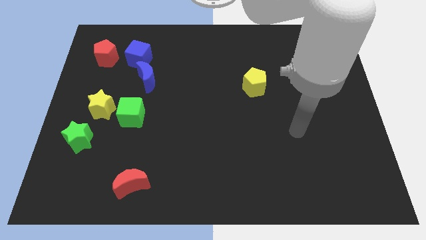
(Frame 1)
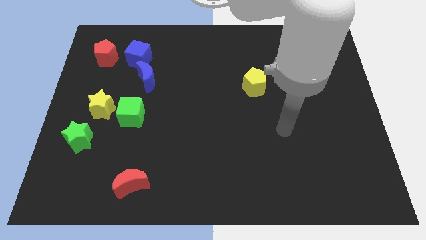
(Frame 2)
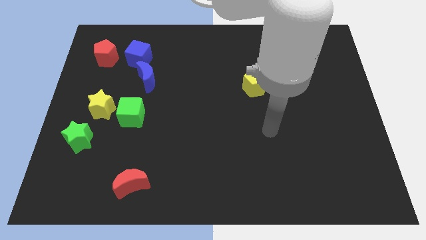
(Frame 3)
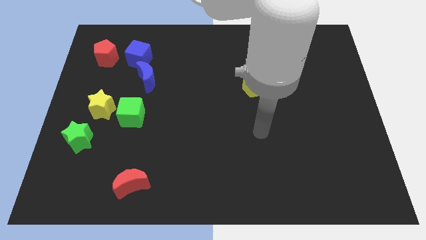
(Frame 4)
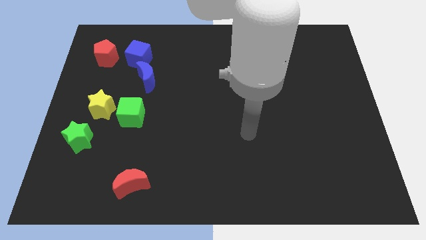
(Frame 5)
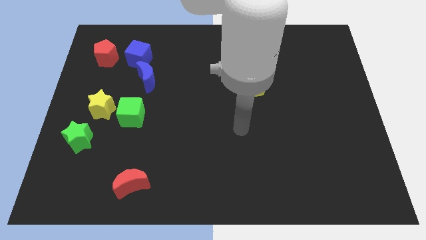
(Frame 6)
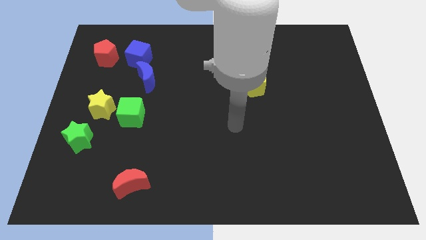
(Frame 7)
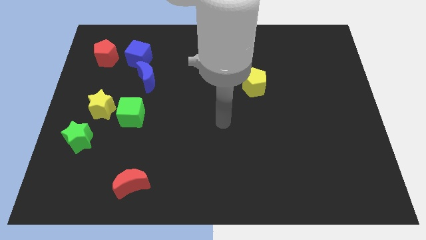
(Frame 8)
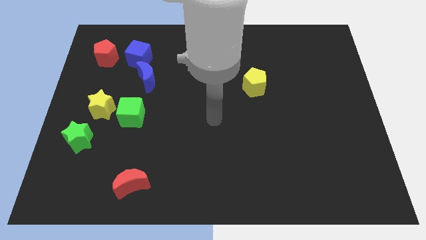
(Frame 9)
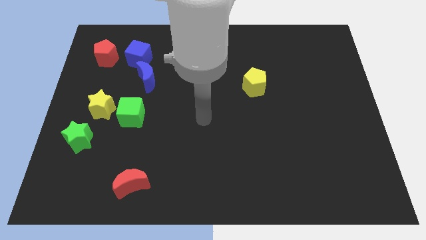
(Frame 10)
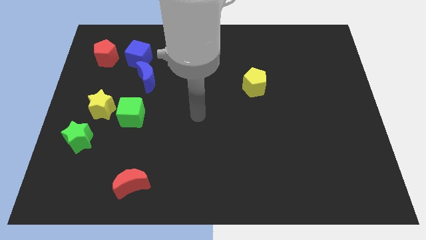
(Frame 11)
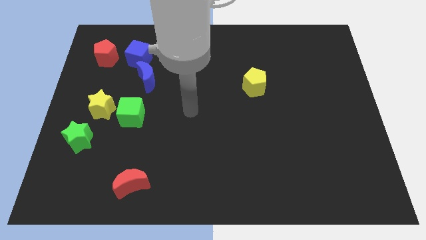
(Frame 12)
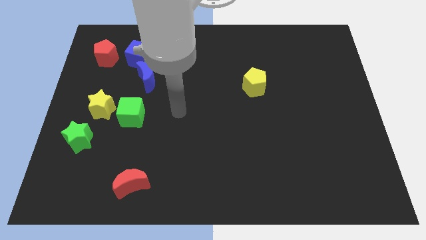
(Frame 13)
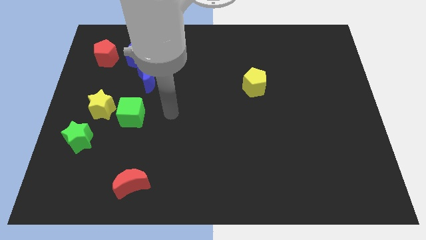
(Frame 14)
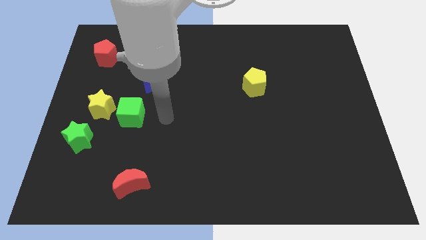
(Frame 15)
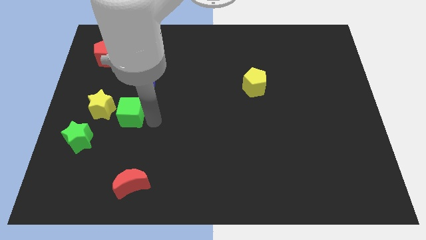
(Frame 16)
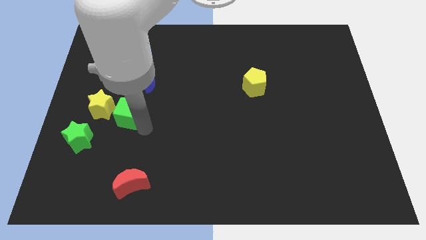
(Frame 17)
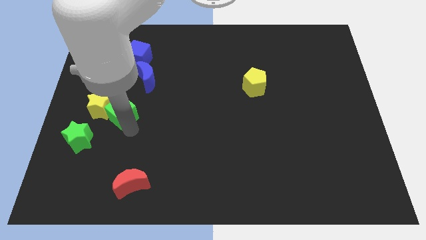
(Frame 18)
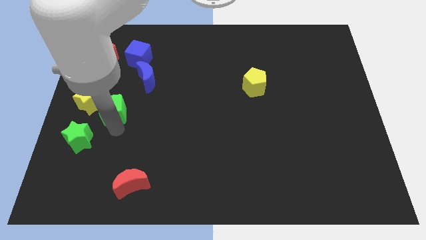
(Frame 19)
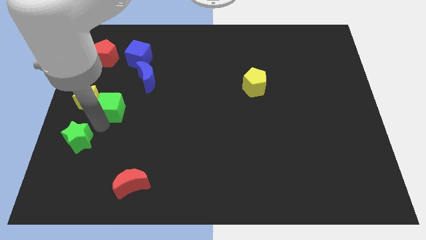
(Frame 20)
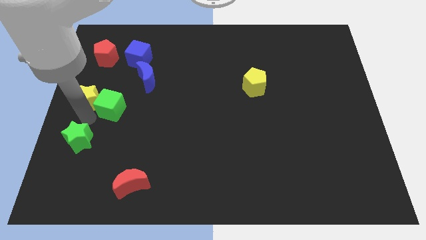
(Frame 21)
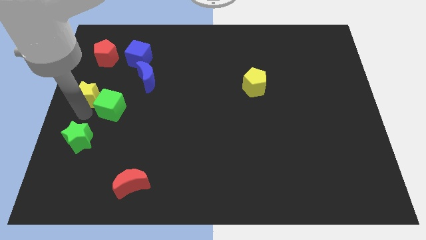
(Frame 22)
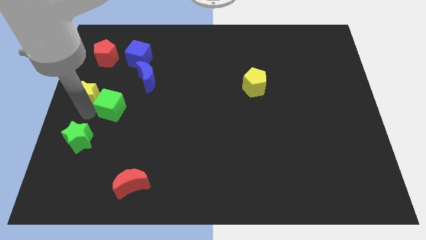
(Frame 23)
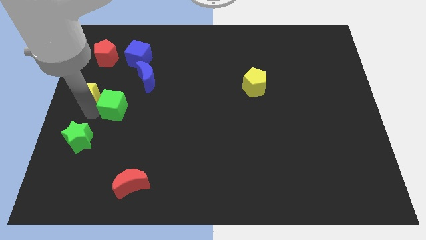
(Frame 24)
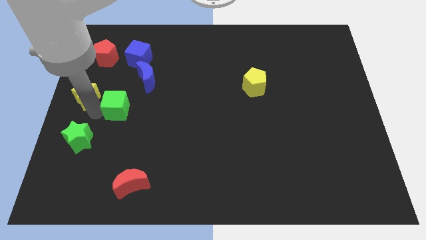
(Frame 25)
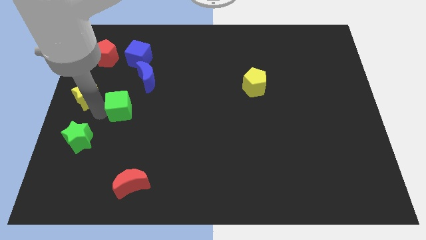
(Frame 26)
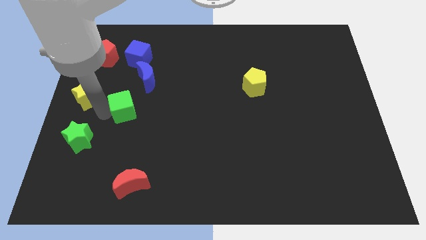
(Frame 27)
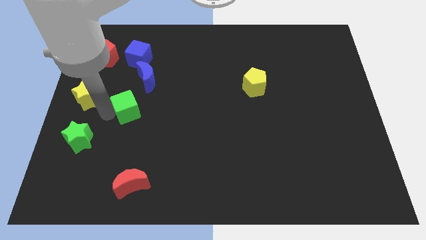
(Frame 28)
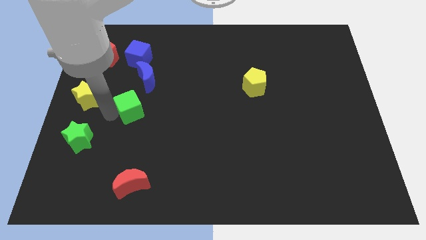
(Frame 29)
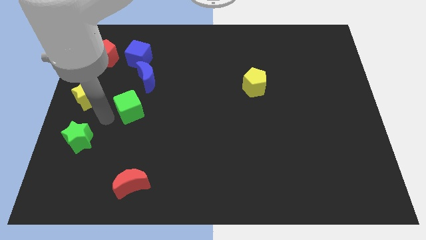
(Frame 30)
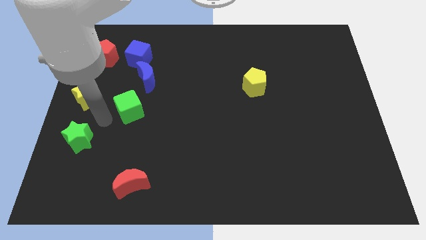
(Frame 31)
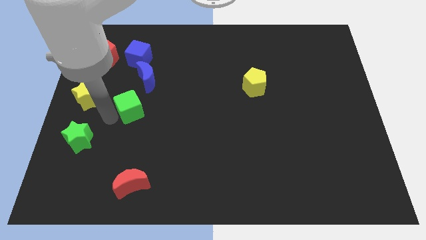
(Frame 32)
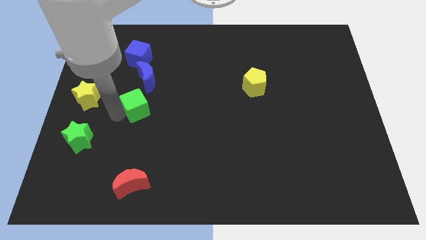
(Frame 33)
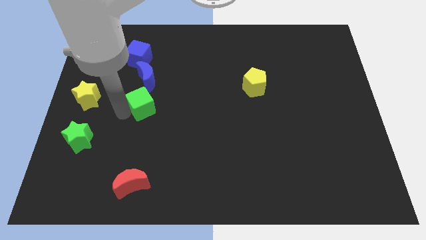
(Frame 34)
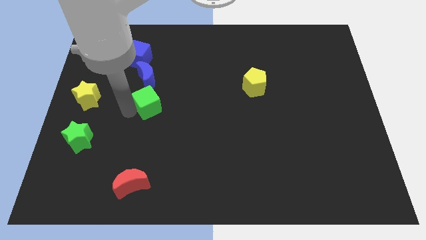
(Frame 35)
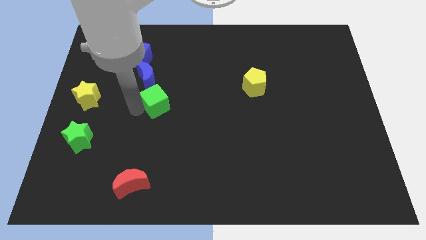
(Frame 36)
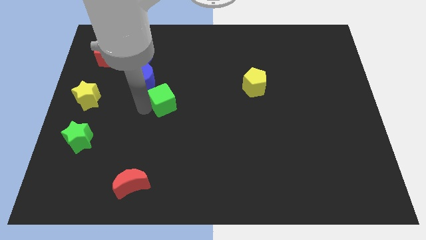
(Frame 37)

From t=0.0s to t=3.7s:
push the green cube diagonally up and to the right slightly

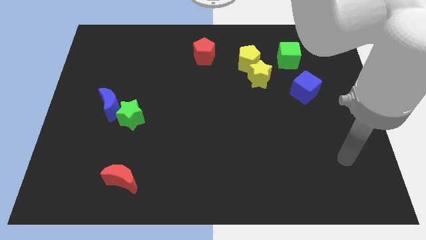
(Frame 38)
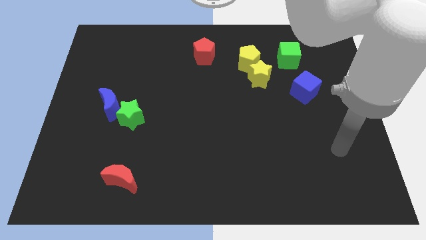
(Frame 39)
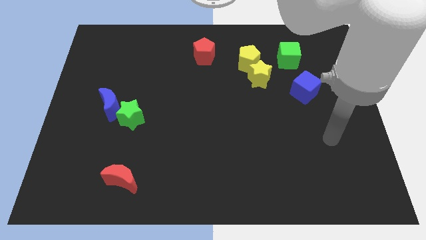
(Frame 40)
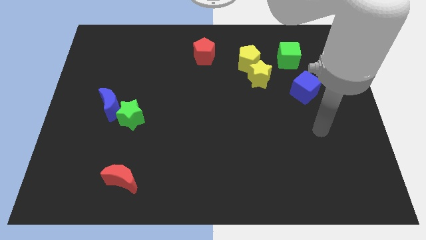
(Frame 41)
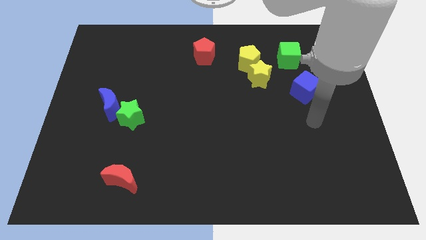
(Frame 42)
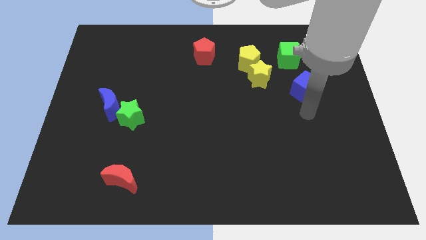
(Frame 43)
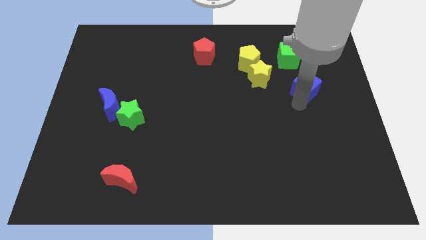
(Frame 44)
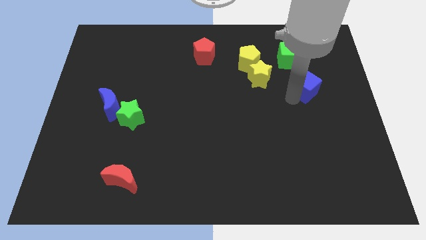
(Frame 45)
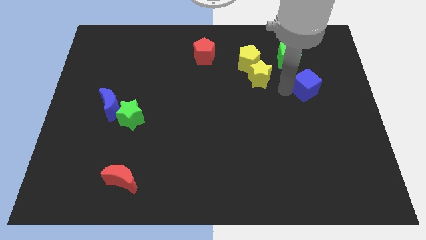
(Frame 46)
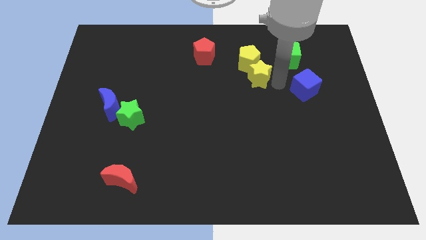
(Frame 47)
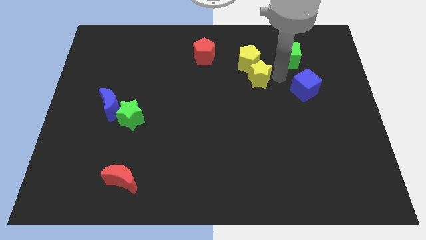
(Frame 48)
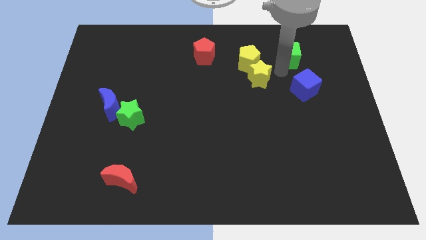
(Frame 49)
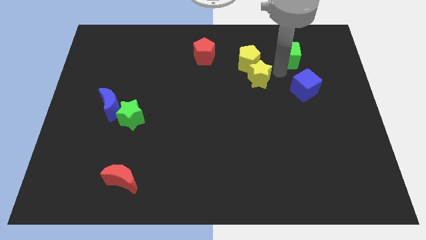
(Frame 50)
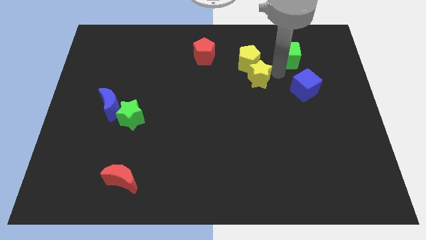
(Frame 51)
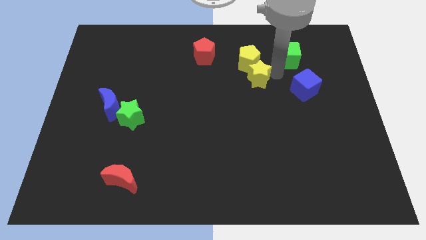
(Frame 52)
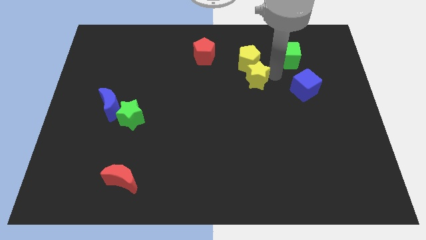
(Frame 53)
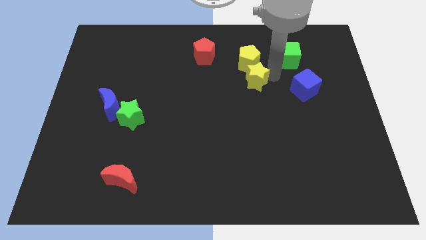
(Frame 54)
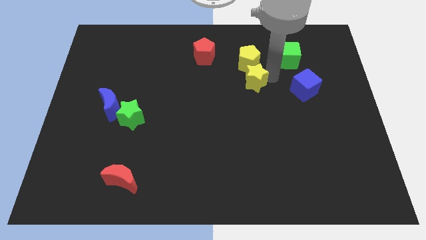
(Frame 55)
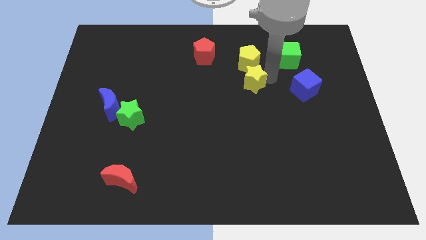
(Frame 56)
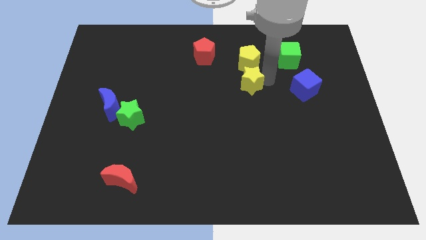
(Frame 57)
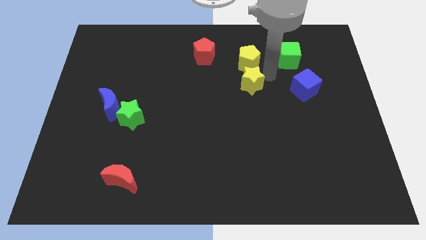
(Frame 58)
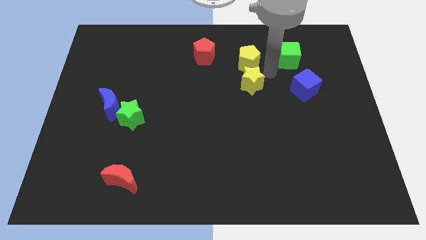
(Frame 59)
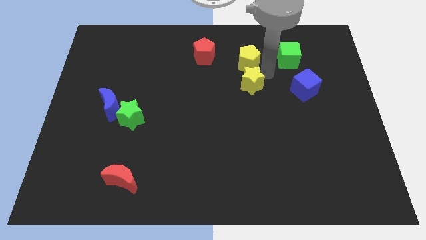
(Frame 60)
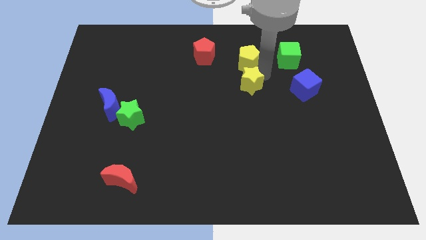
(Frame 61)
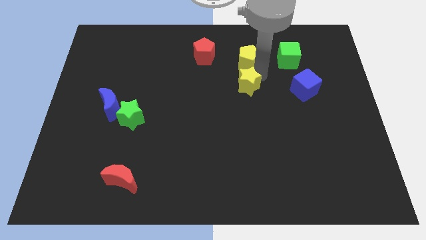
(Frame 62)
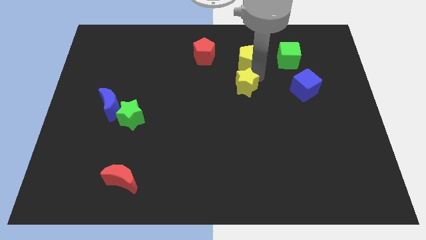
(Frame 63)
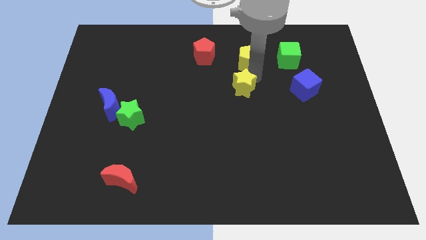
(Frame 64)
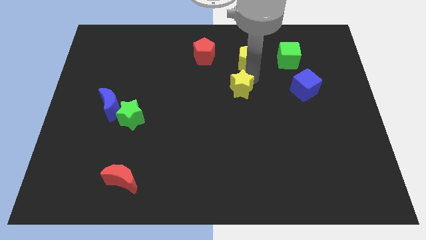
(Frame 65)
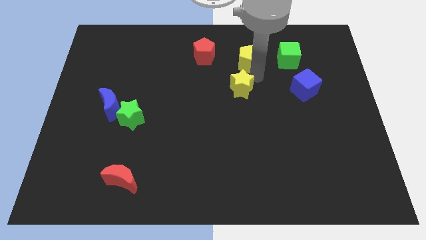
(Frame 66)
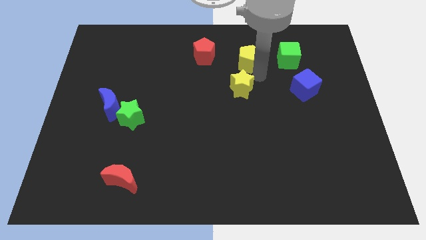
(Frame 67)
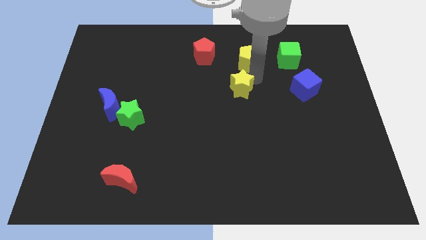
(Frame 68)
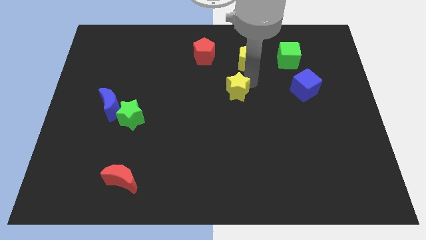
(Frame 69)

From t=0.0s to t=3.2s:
slide the yellow star a bit downwards and left diagonally

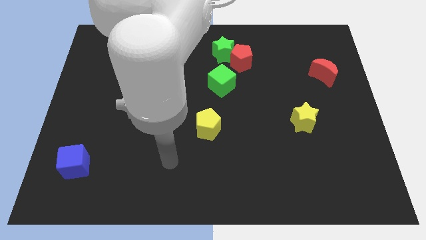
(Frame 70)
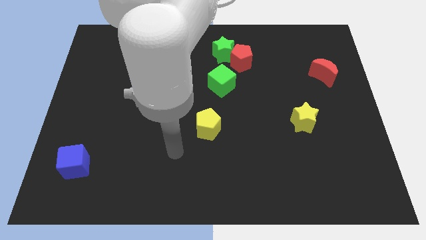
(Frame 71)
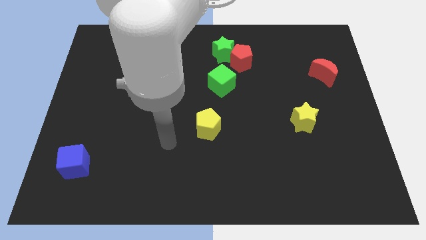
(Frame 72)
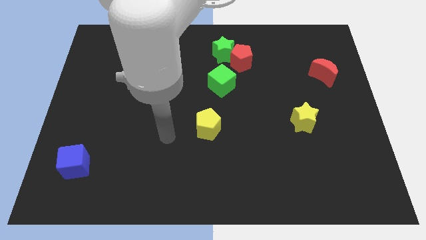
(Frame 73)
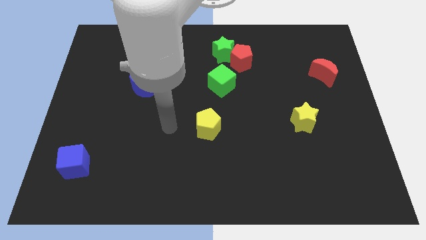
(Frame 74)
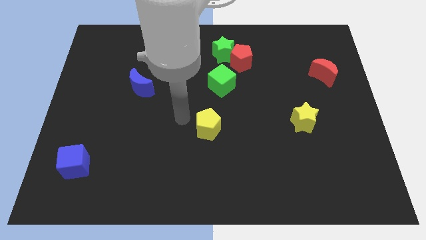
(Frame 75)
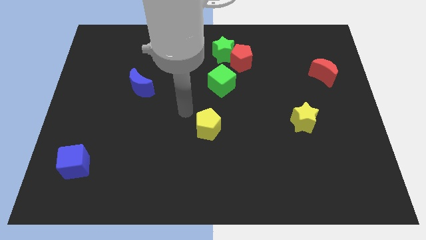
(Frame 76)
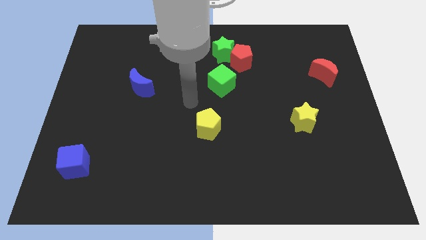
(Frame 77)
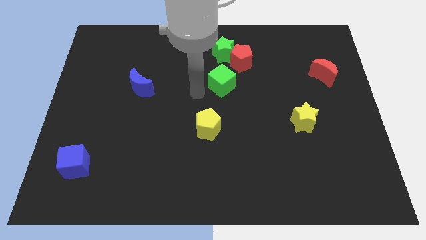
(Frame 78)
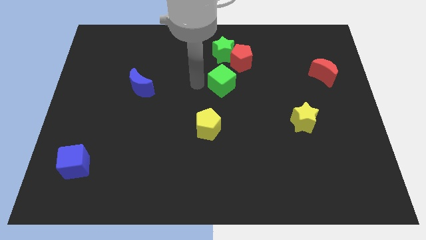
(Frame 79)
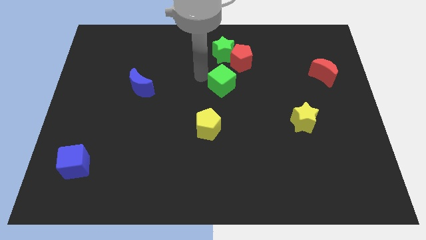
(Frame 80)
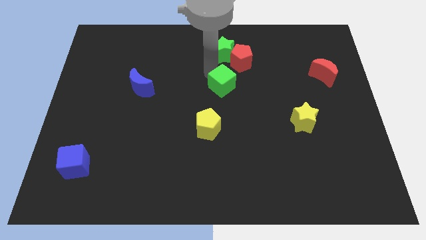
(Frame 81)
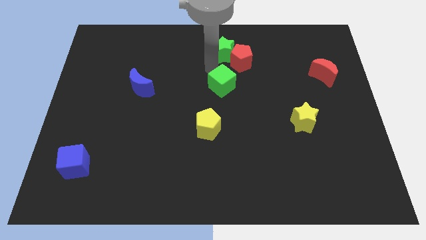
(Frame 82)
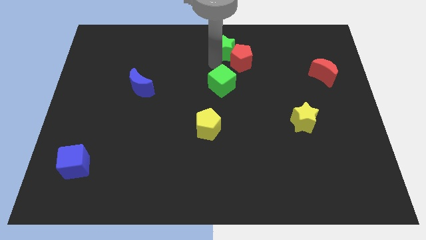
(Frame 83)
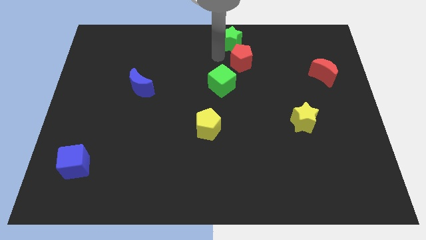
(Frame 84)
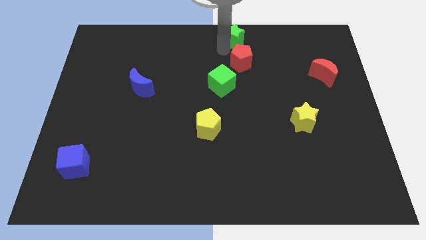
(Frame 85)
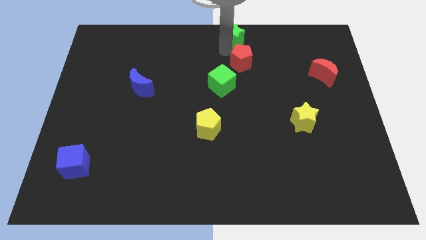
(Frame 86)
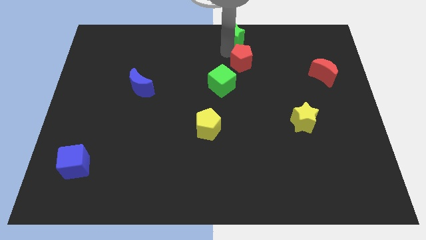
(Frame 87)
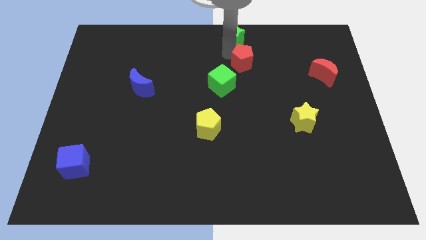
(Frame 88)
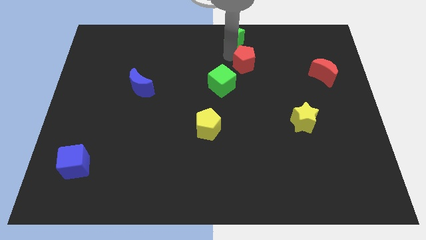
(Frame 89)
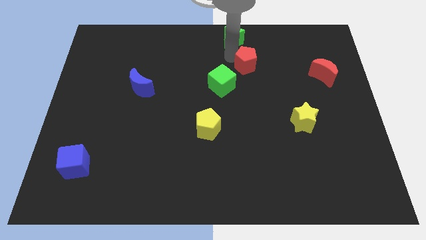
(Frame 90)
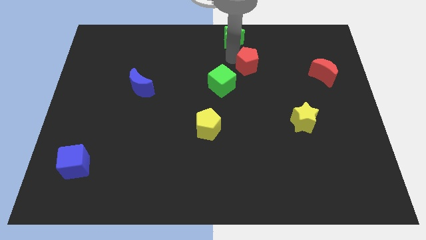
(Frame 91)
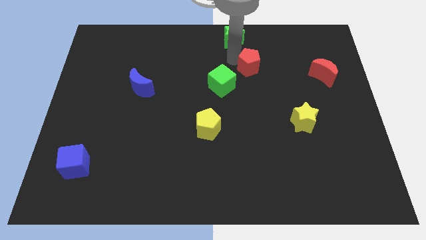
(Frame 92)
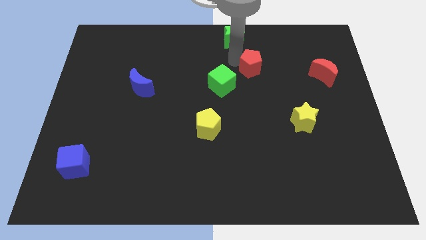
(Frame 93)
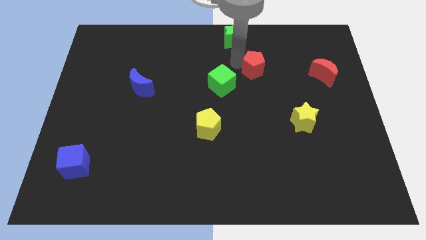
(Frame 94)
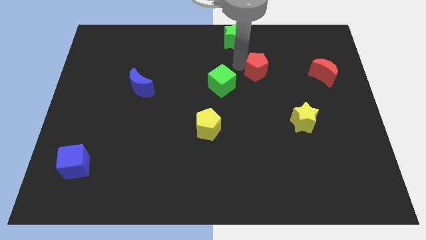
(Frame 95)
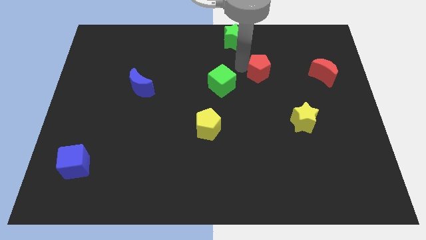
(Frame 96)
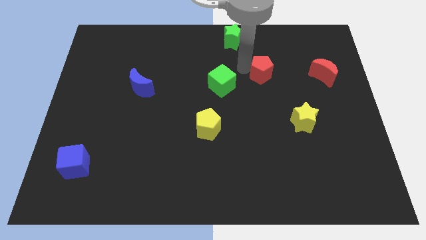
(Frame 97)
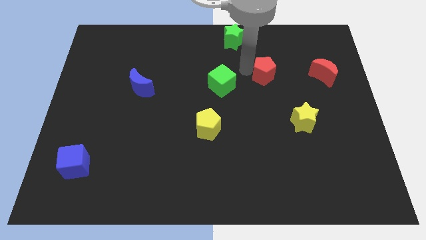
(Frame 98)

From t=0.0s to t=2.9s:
push the red pentagon somewhat down and right
